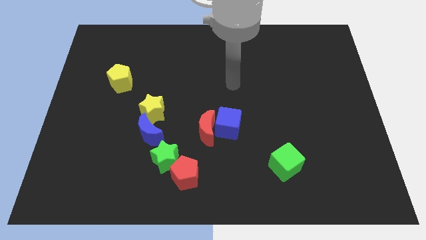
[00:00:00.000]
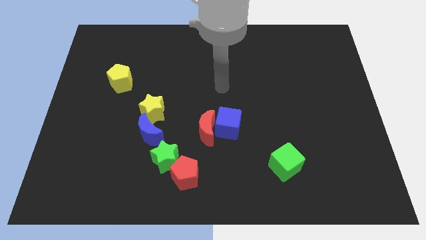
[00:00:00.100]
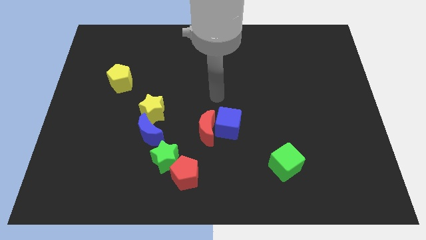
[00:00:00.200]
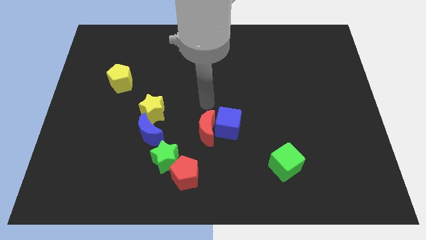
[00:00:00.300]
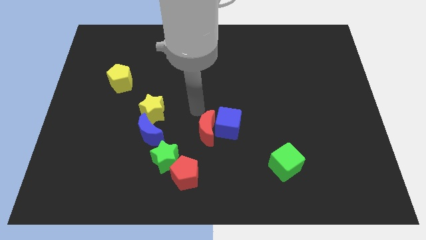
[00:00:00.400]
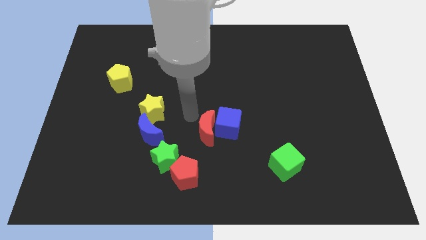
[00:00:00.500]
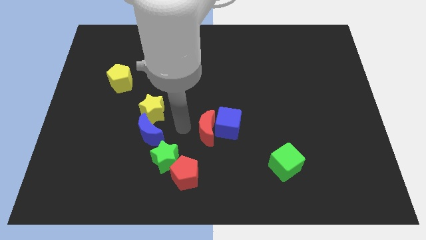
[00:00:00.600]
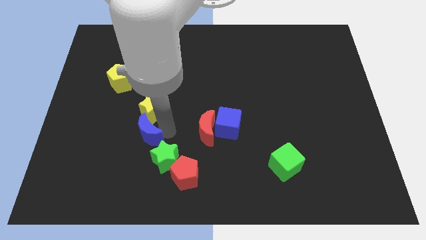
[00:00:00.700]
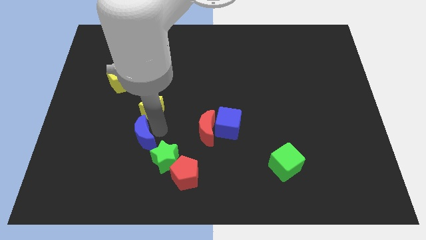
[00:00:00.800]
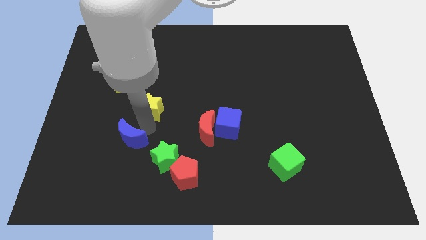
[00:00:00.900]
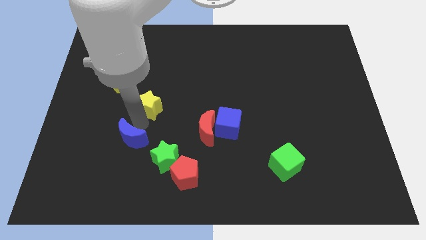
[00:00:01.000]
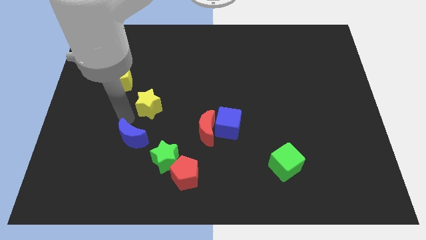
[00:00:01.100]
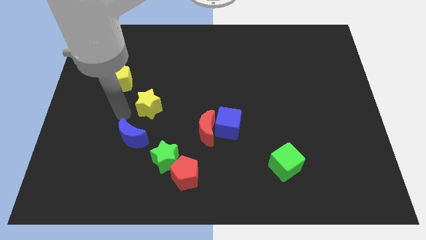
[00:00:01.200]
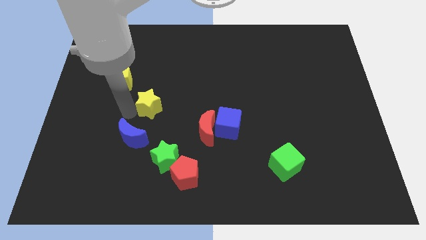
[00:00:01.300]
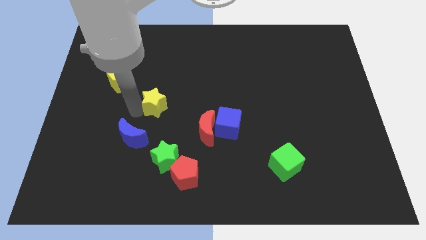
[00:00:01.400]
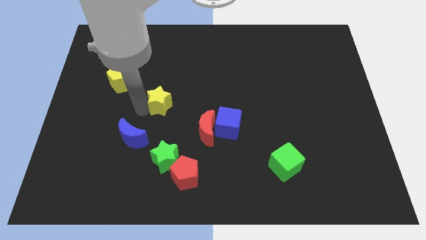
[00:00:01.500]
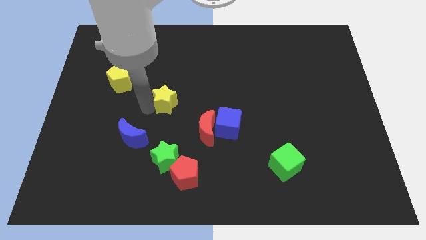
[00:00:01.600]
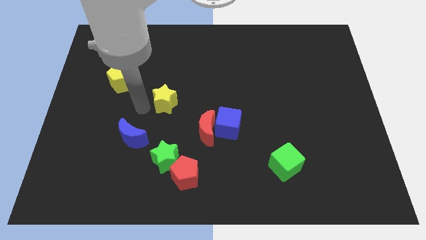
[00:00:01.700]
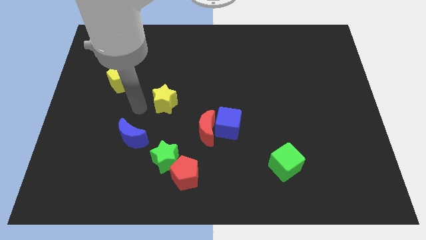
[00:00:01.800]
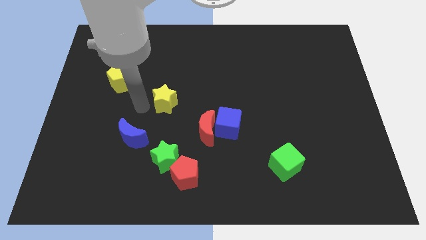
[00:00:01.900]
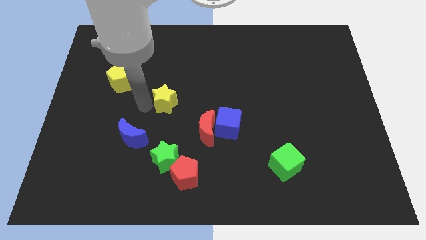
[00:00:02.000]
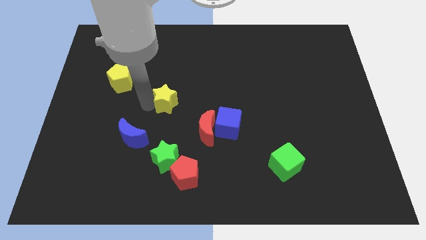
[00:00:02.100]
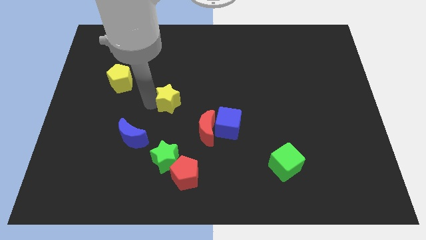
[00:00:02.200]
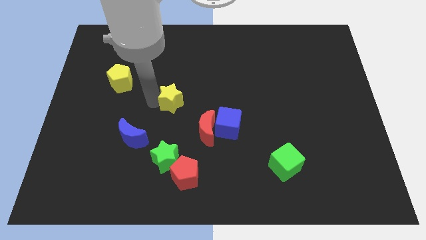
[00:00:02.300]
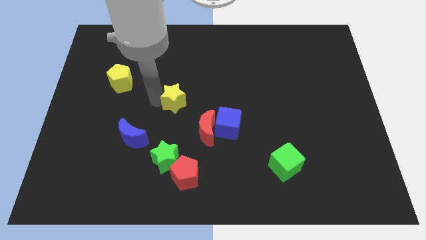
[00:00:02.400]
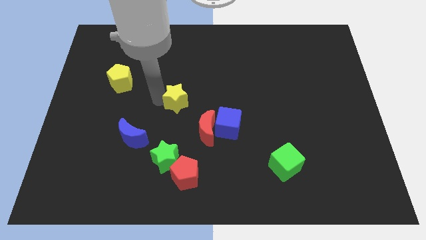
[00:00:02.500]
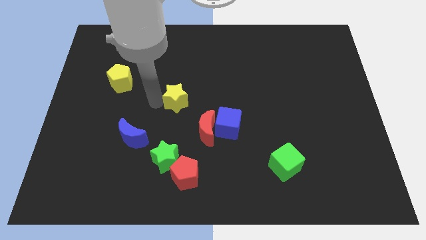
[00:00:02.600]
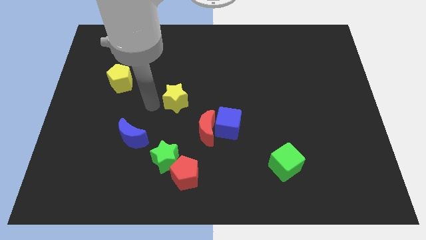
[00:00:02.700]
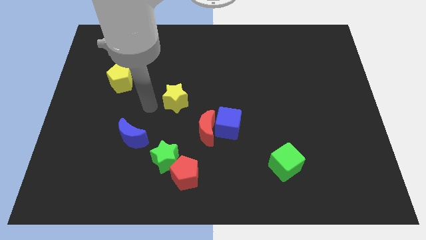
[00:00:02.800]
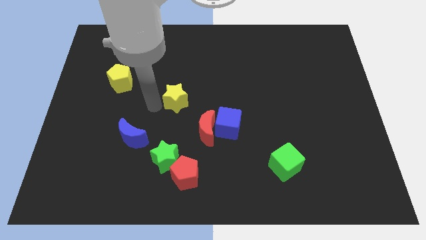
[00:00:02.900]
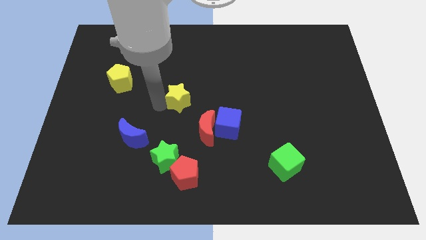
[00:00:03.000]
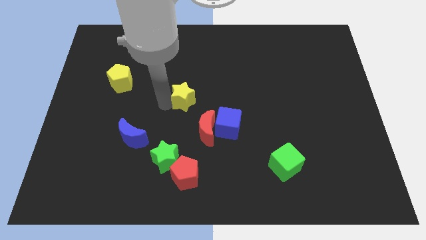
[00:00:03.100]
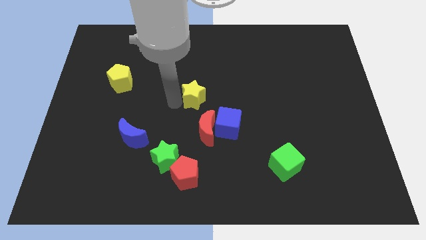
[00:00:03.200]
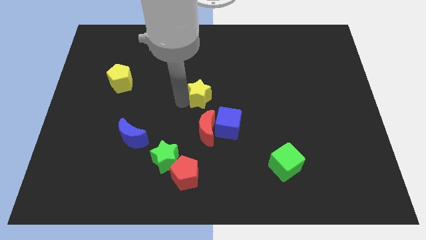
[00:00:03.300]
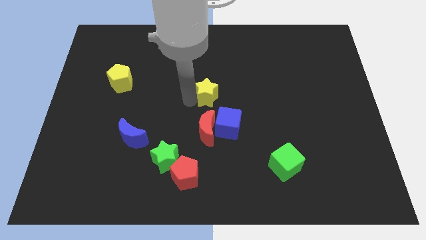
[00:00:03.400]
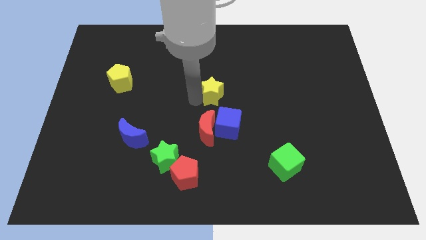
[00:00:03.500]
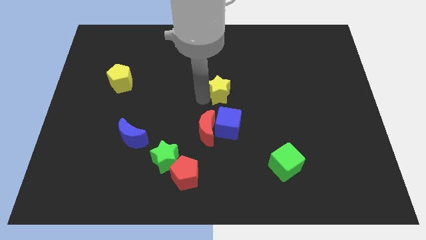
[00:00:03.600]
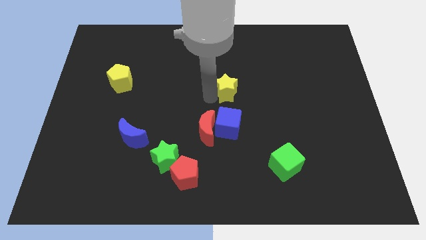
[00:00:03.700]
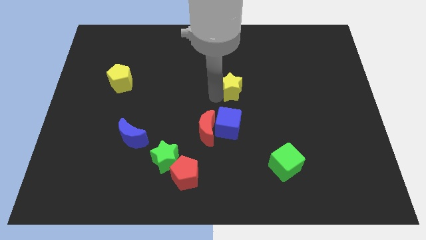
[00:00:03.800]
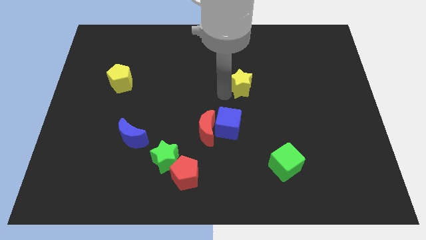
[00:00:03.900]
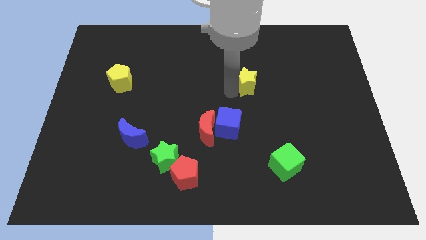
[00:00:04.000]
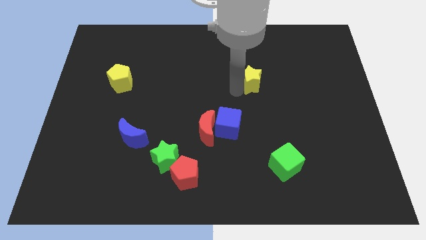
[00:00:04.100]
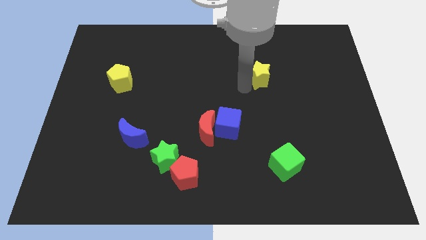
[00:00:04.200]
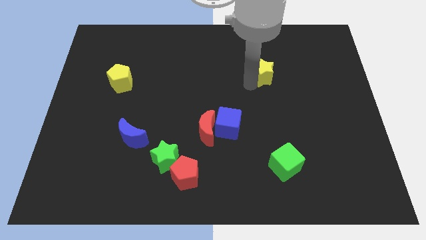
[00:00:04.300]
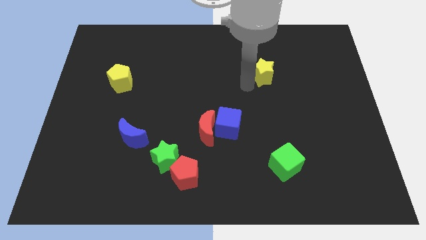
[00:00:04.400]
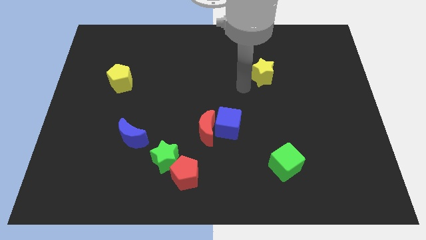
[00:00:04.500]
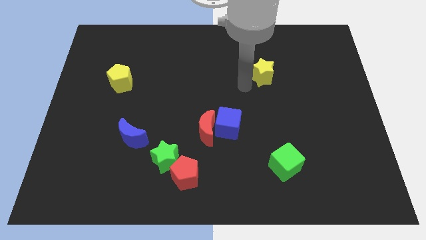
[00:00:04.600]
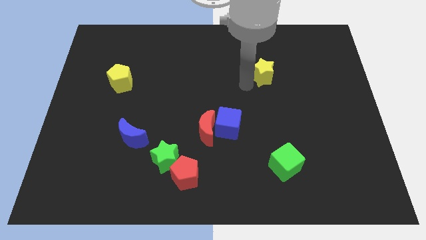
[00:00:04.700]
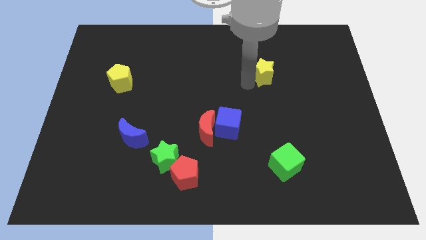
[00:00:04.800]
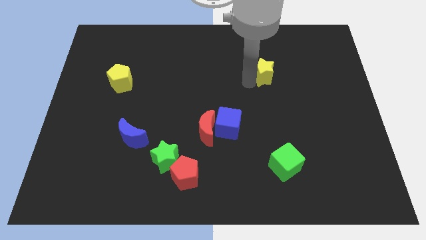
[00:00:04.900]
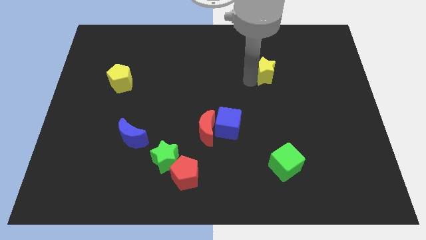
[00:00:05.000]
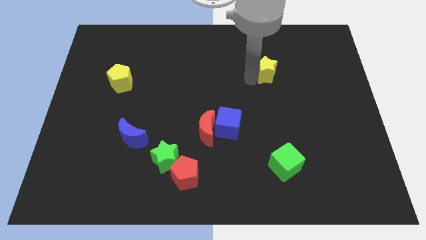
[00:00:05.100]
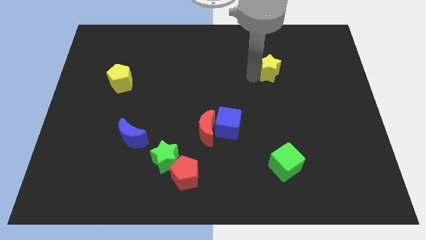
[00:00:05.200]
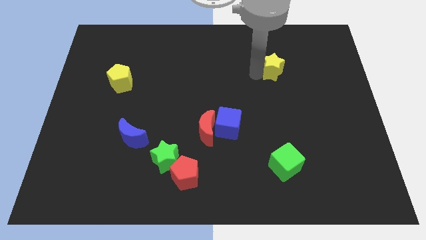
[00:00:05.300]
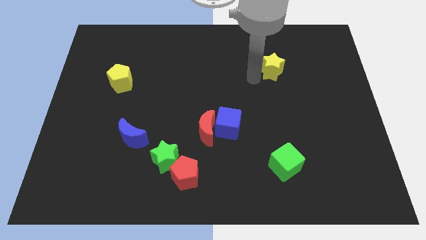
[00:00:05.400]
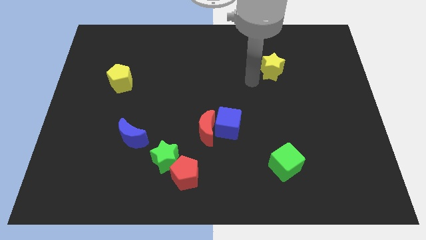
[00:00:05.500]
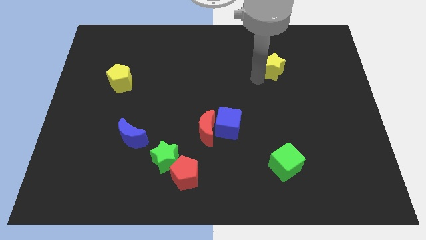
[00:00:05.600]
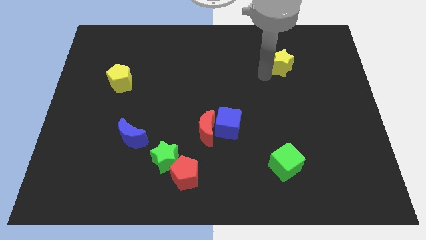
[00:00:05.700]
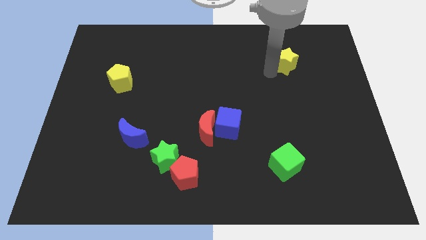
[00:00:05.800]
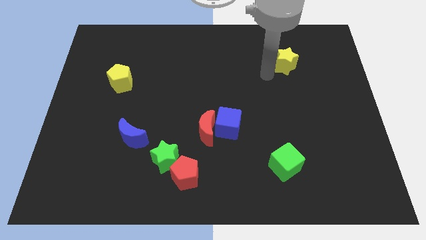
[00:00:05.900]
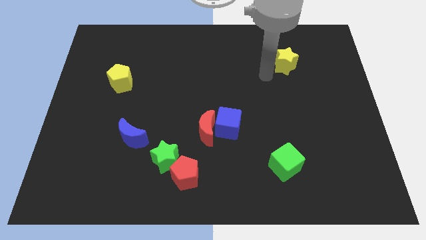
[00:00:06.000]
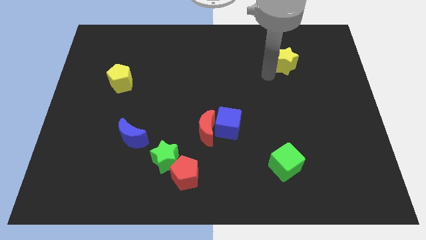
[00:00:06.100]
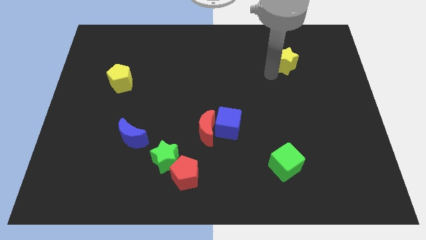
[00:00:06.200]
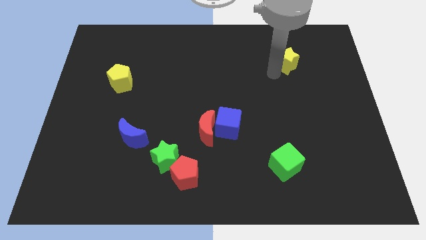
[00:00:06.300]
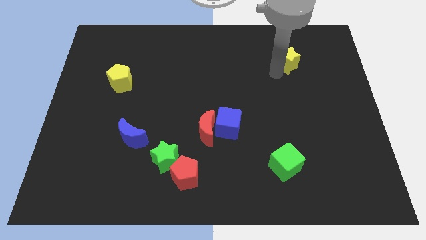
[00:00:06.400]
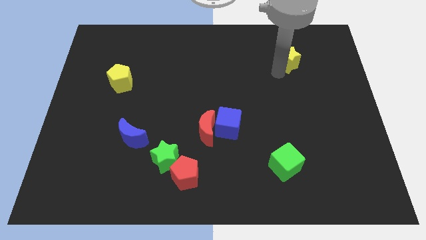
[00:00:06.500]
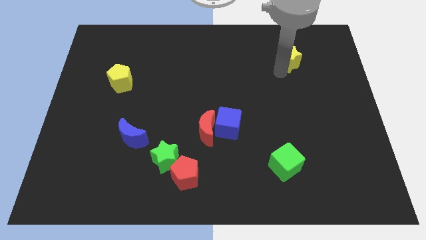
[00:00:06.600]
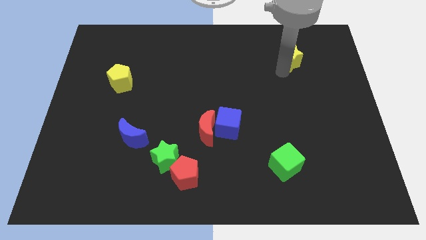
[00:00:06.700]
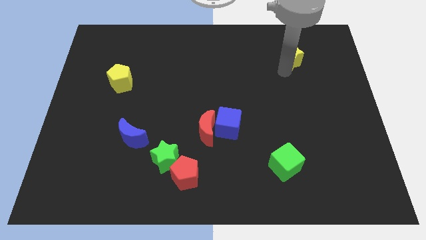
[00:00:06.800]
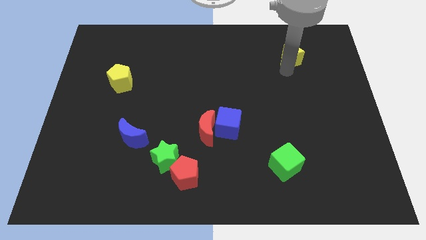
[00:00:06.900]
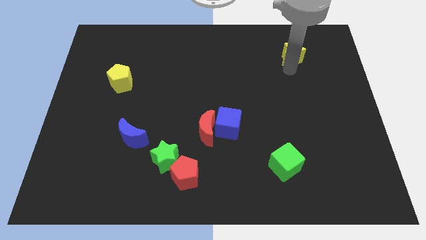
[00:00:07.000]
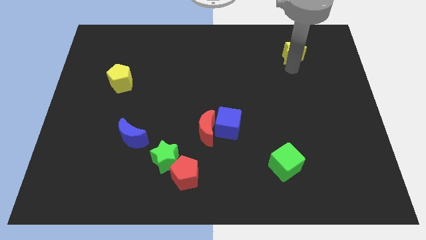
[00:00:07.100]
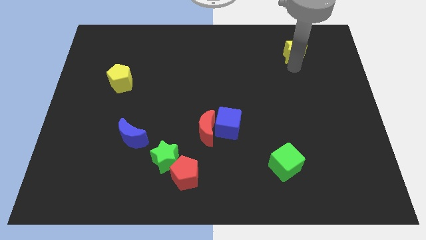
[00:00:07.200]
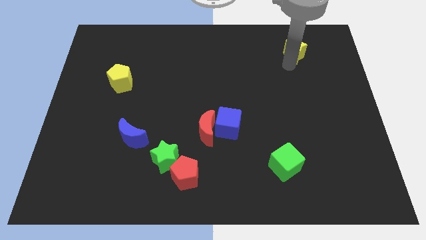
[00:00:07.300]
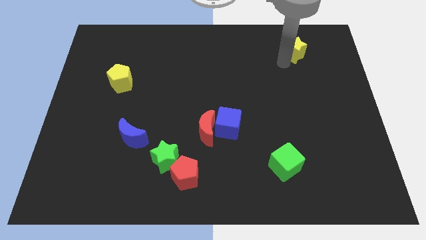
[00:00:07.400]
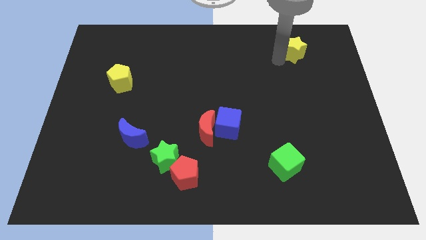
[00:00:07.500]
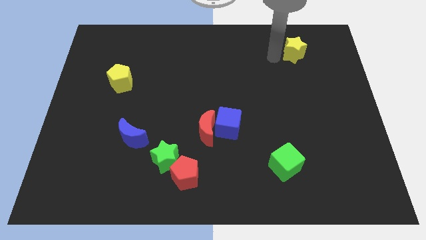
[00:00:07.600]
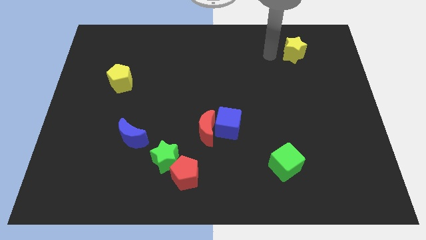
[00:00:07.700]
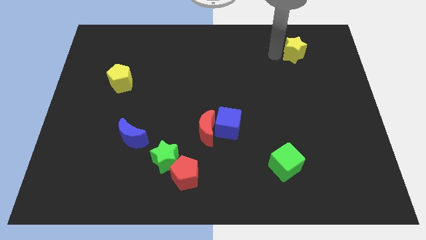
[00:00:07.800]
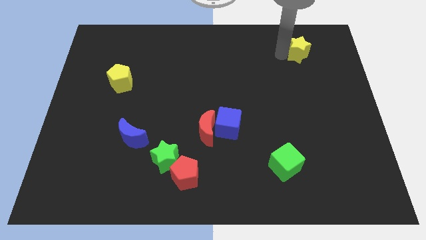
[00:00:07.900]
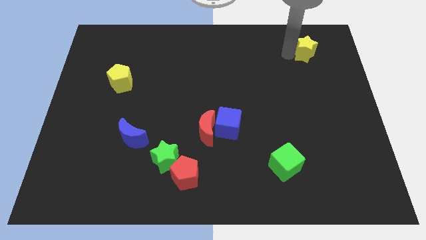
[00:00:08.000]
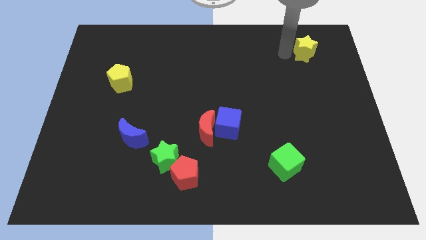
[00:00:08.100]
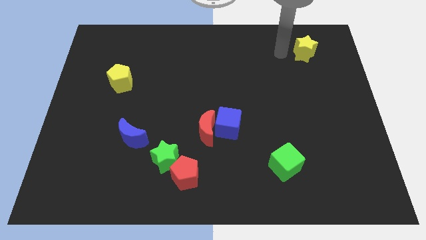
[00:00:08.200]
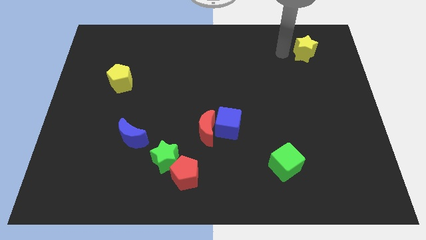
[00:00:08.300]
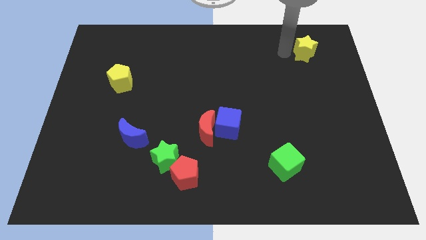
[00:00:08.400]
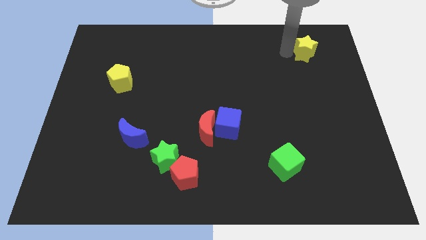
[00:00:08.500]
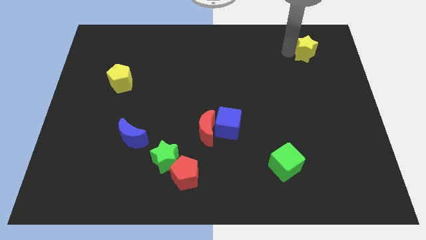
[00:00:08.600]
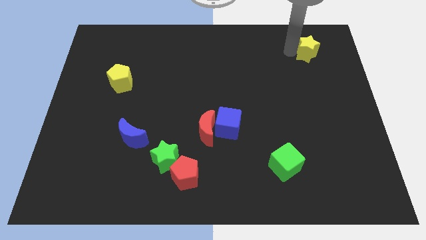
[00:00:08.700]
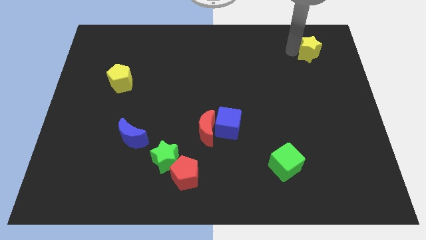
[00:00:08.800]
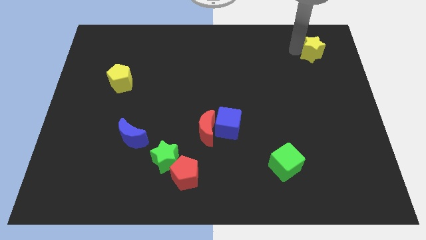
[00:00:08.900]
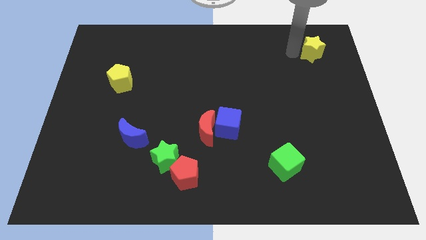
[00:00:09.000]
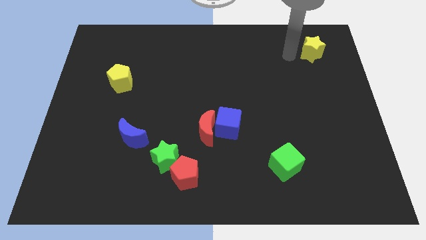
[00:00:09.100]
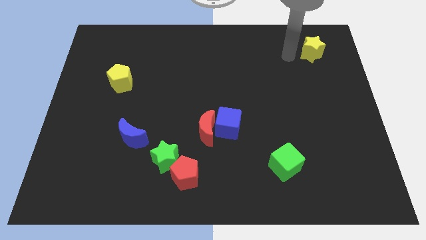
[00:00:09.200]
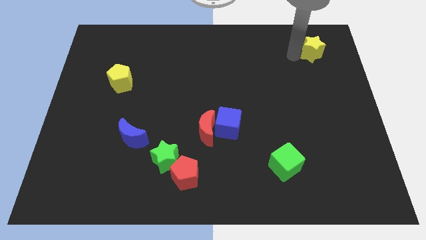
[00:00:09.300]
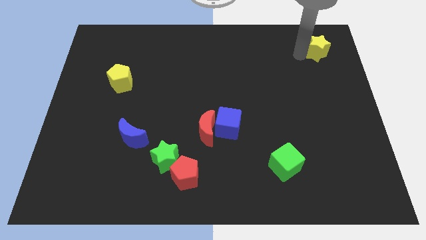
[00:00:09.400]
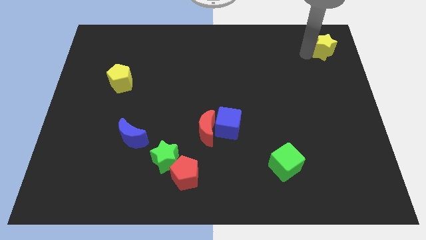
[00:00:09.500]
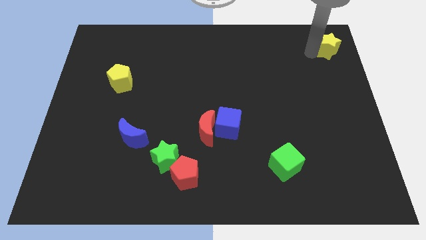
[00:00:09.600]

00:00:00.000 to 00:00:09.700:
slide the yellow star to the top right of the board
